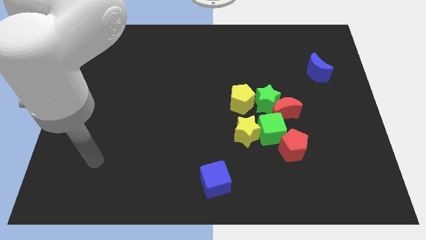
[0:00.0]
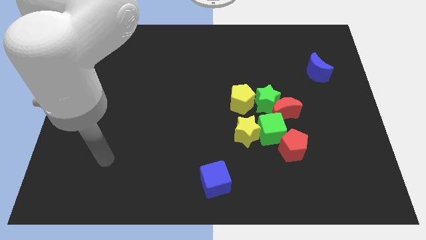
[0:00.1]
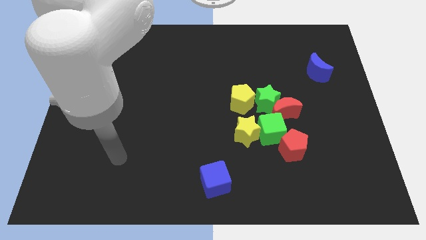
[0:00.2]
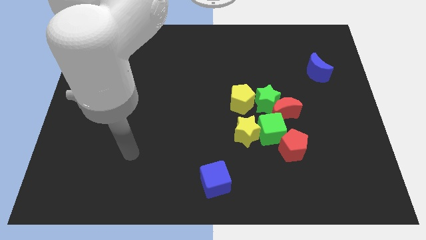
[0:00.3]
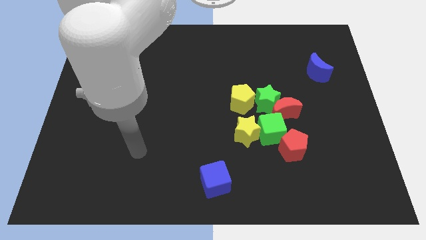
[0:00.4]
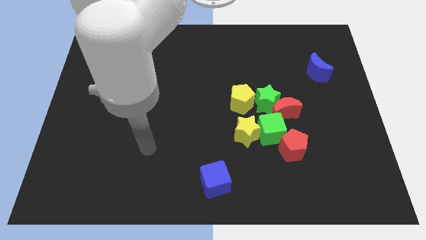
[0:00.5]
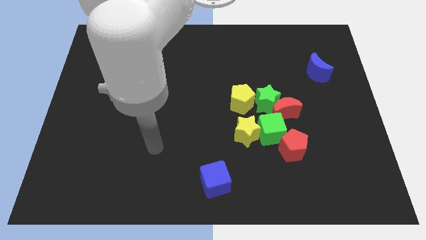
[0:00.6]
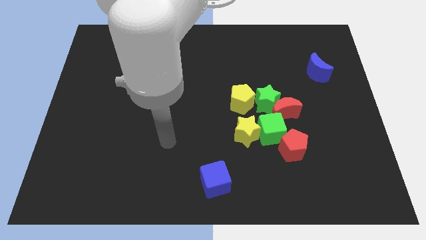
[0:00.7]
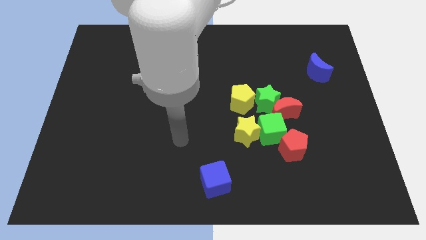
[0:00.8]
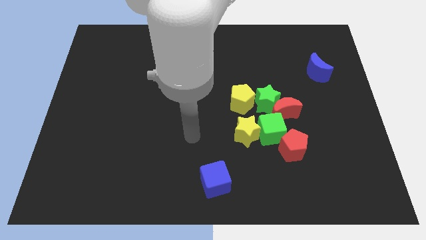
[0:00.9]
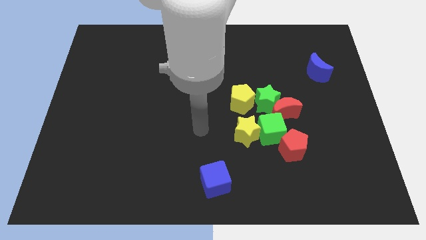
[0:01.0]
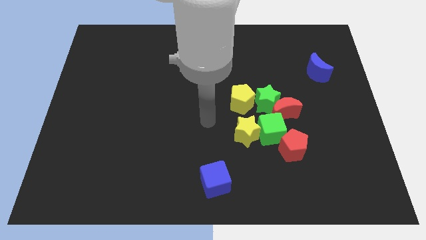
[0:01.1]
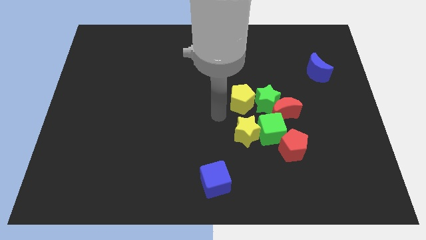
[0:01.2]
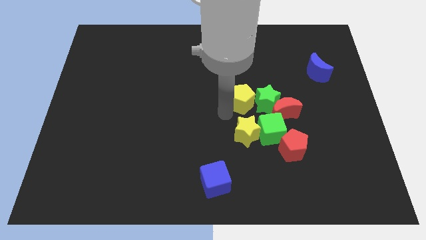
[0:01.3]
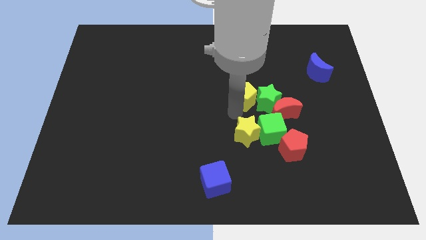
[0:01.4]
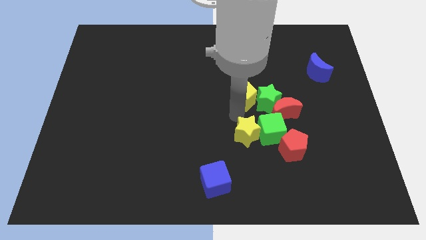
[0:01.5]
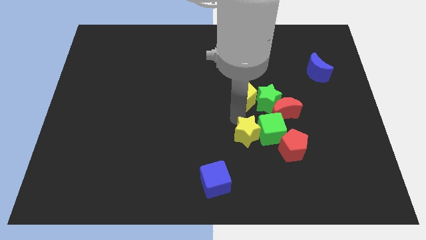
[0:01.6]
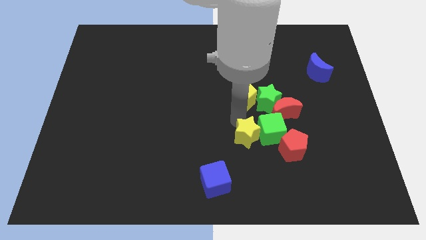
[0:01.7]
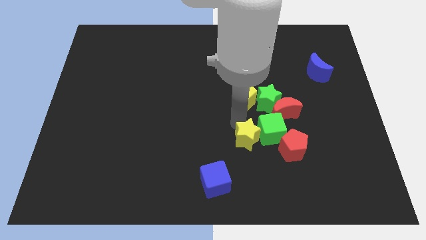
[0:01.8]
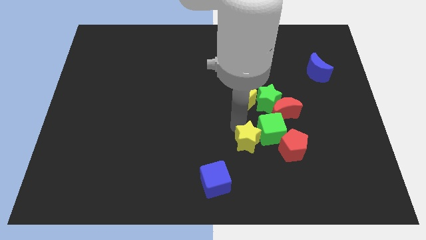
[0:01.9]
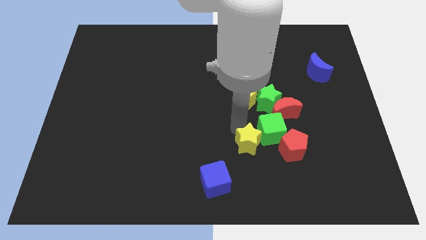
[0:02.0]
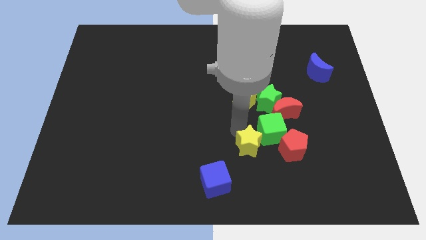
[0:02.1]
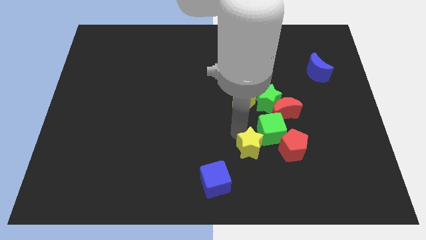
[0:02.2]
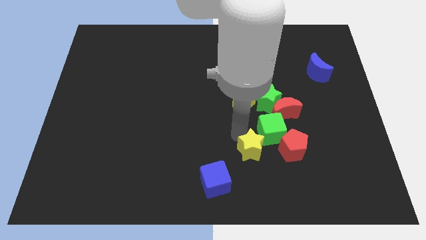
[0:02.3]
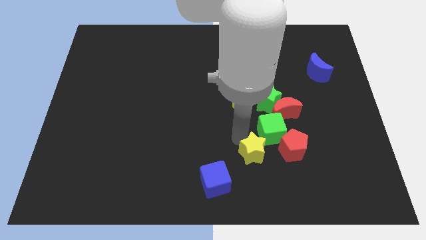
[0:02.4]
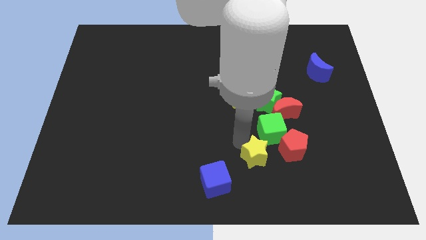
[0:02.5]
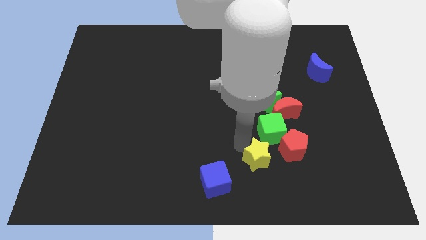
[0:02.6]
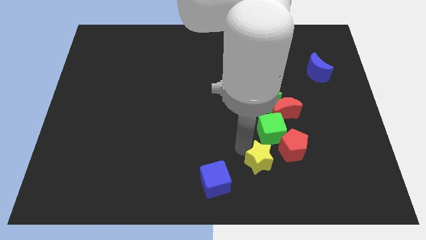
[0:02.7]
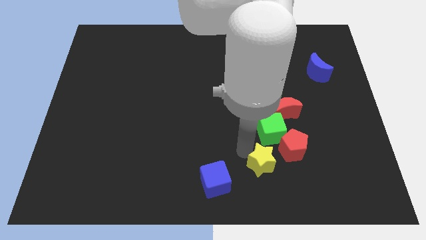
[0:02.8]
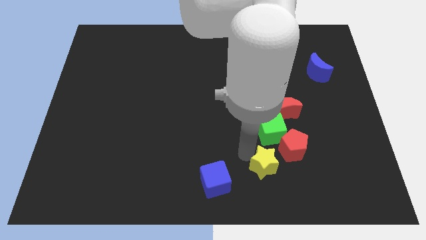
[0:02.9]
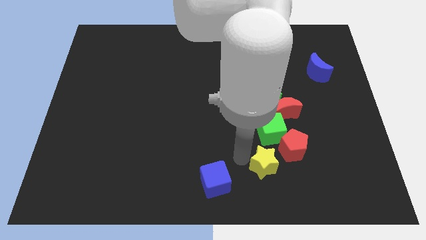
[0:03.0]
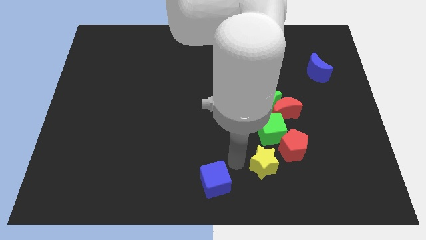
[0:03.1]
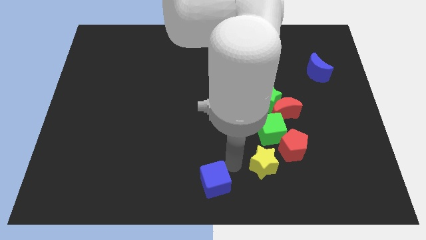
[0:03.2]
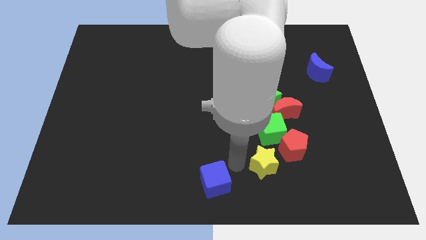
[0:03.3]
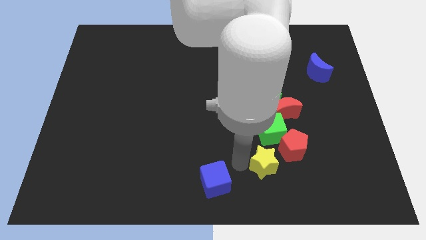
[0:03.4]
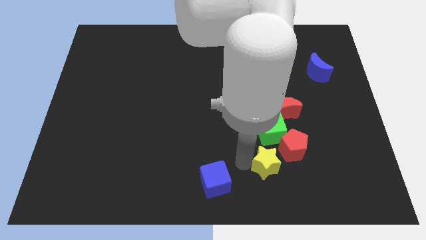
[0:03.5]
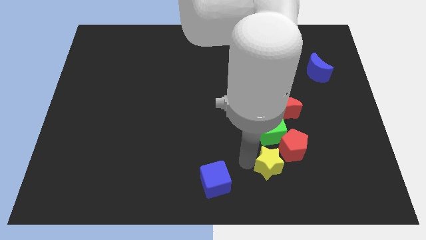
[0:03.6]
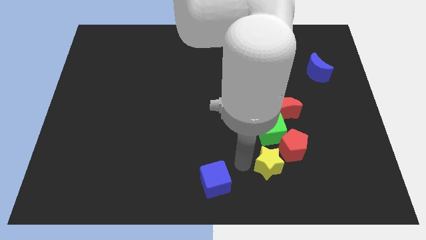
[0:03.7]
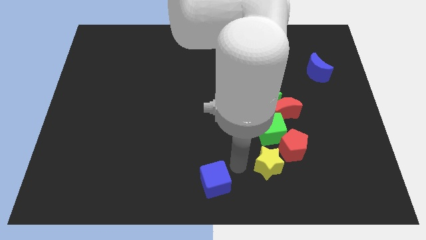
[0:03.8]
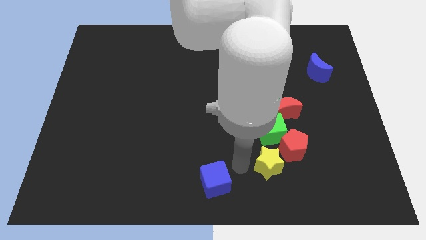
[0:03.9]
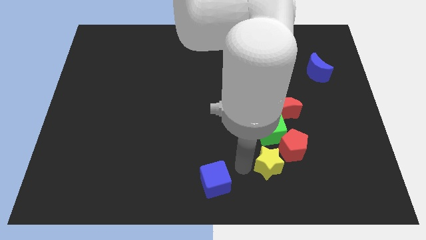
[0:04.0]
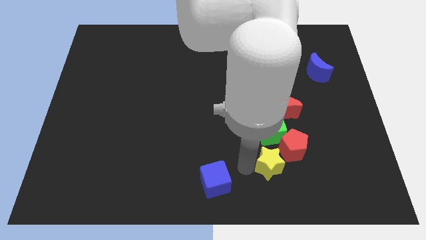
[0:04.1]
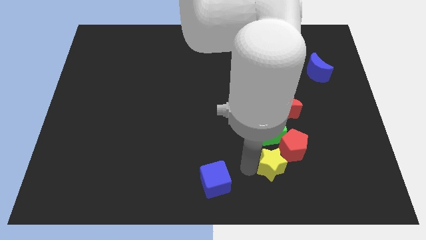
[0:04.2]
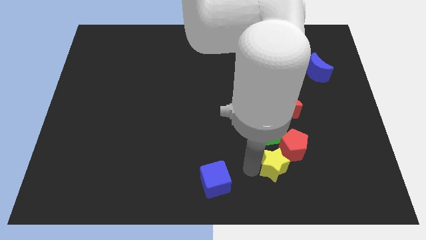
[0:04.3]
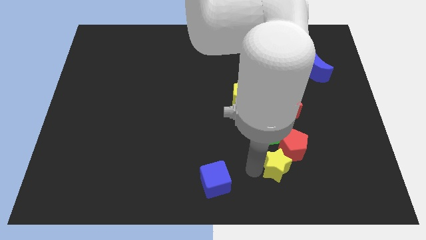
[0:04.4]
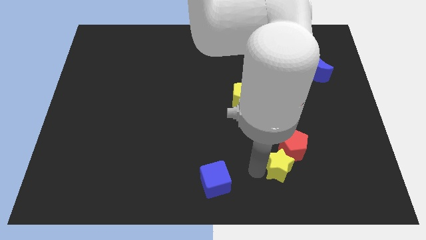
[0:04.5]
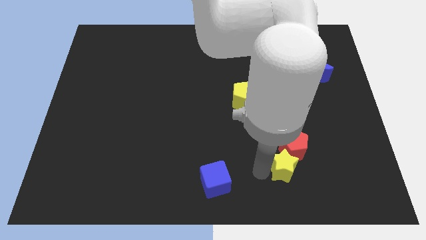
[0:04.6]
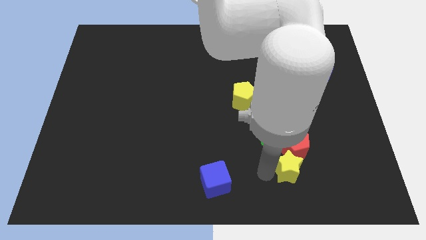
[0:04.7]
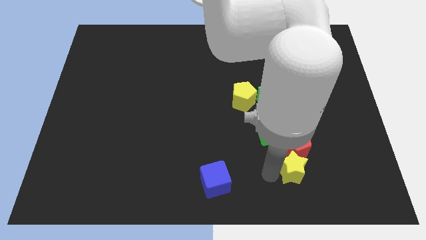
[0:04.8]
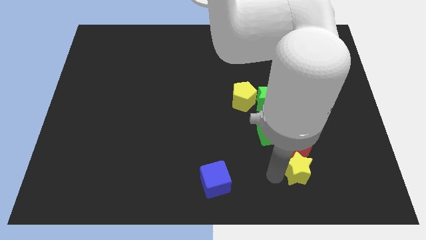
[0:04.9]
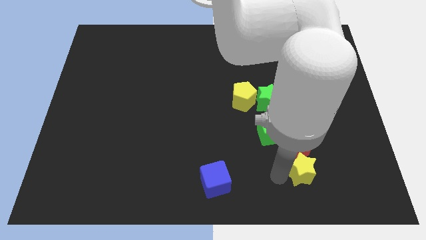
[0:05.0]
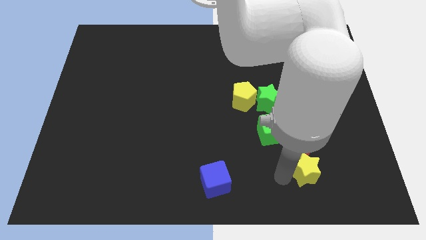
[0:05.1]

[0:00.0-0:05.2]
slide the yellow star a little bit to the right

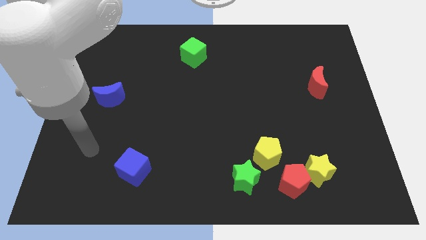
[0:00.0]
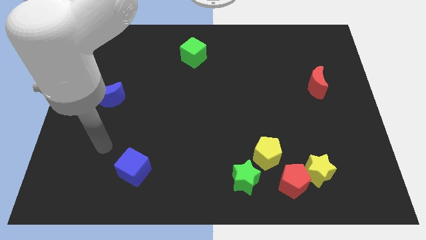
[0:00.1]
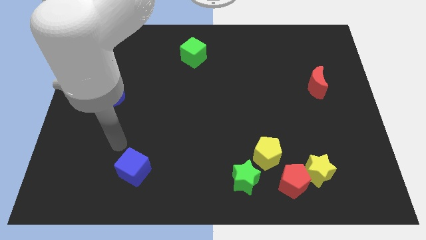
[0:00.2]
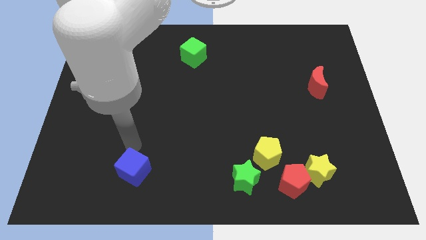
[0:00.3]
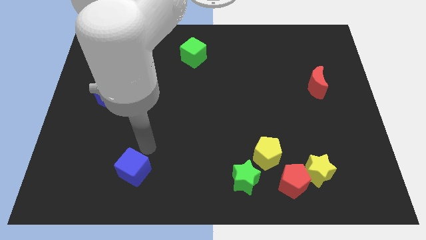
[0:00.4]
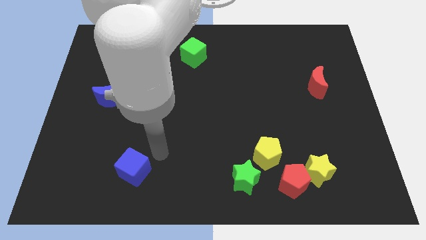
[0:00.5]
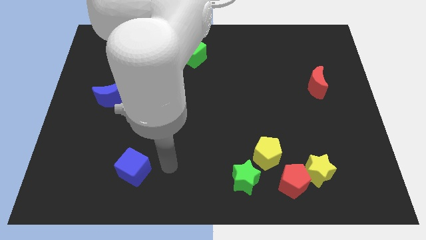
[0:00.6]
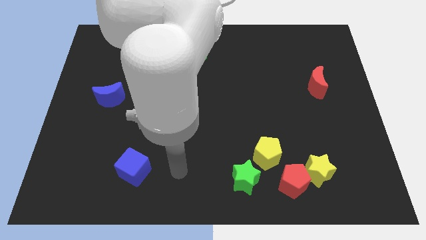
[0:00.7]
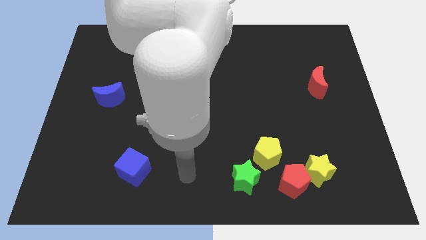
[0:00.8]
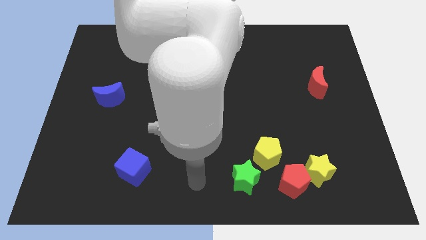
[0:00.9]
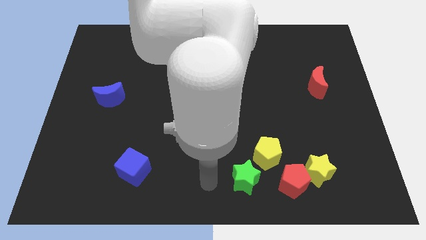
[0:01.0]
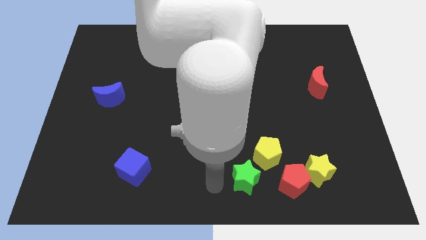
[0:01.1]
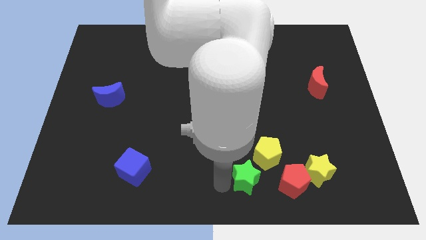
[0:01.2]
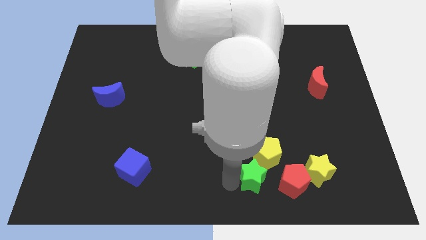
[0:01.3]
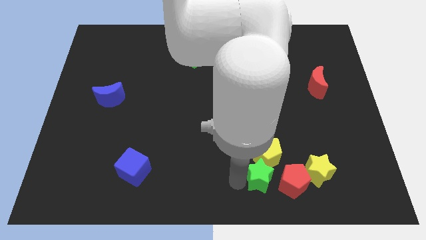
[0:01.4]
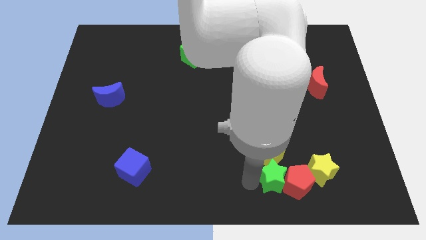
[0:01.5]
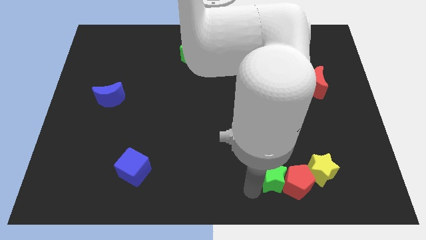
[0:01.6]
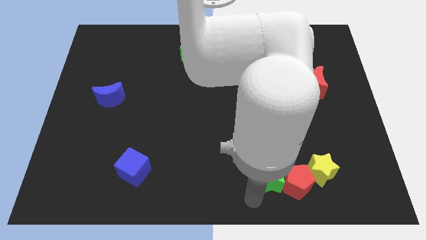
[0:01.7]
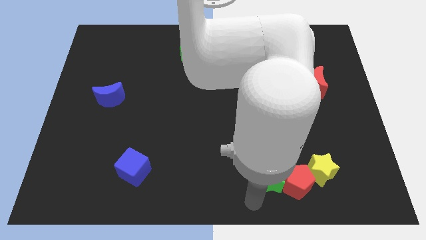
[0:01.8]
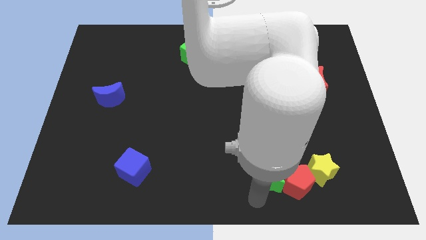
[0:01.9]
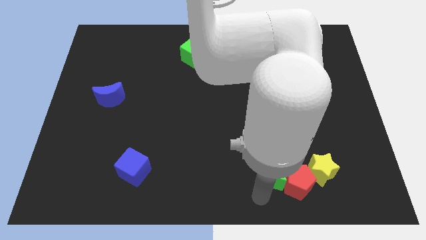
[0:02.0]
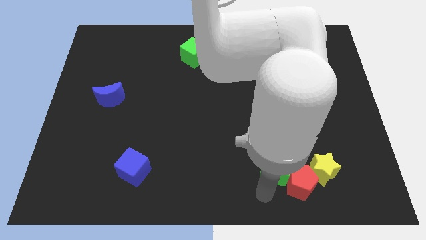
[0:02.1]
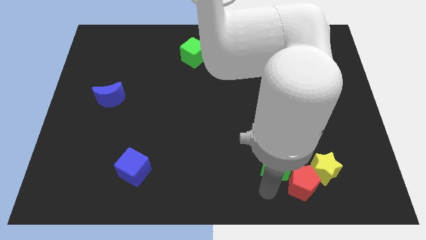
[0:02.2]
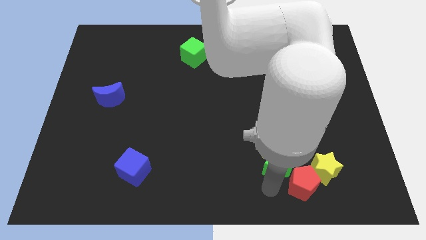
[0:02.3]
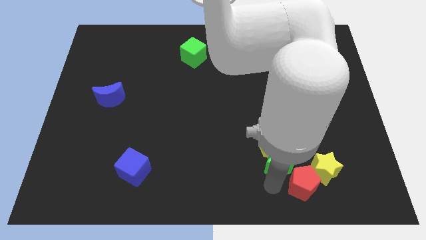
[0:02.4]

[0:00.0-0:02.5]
slide the green star upwards and to the right somewhat

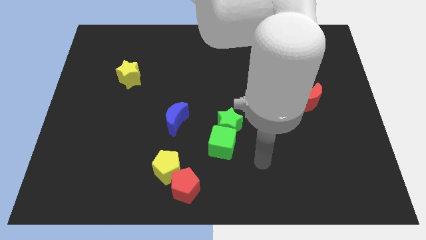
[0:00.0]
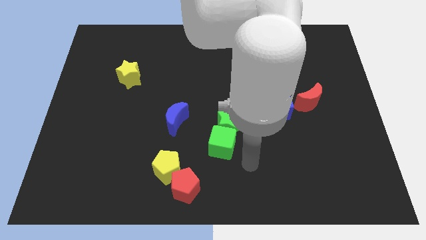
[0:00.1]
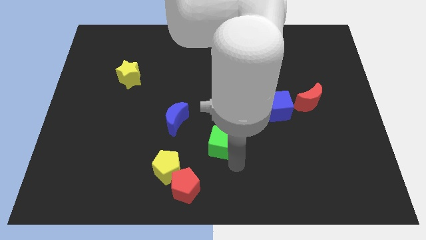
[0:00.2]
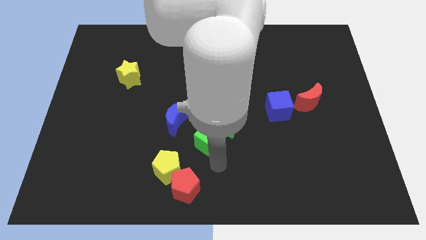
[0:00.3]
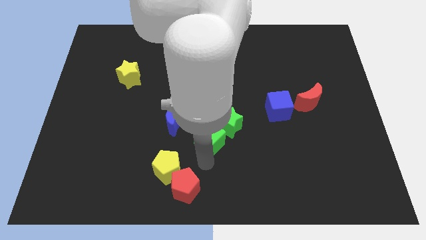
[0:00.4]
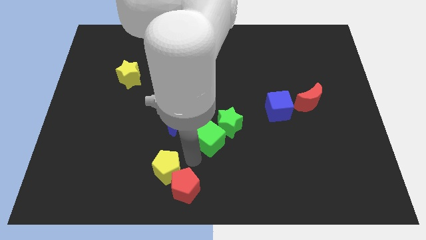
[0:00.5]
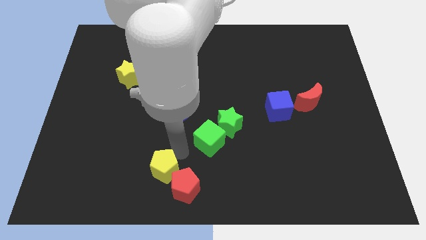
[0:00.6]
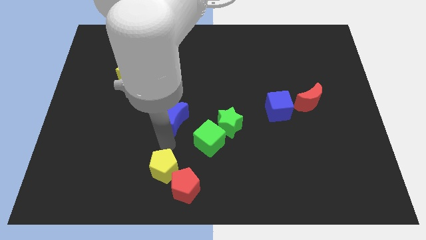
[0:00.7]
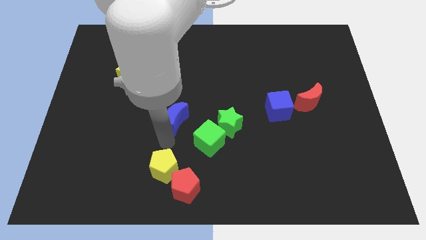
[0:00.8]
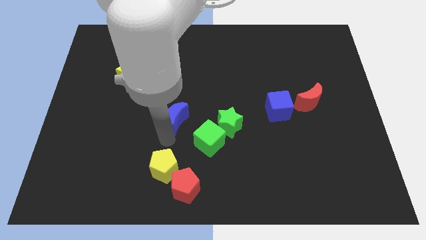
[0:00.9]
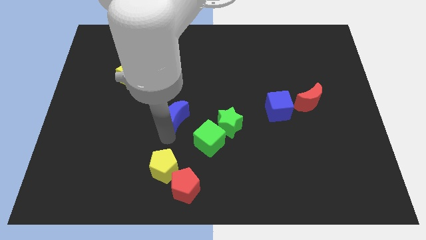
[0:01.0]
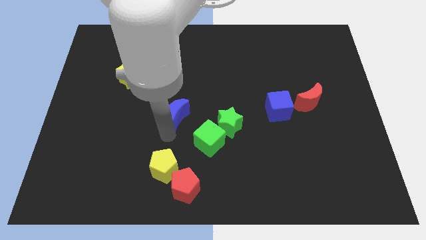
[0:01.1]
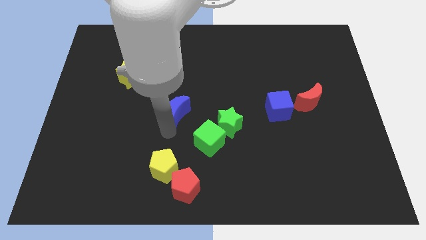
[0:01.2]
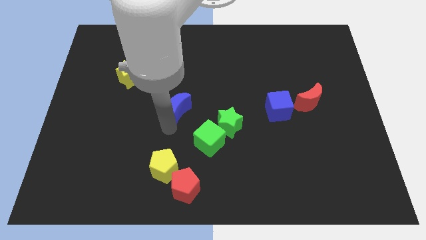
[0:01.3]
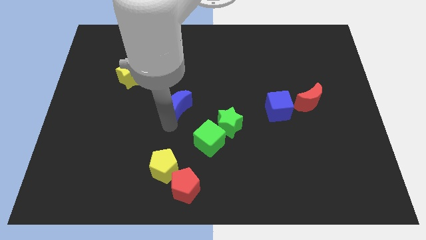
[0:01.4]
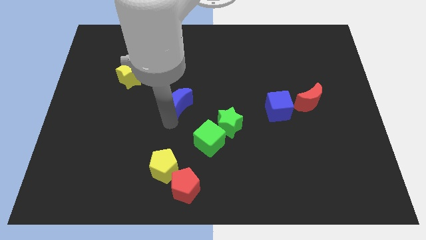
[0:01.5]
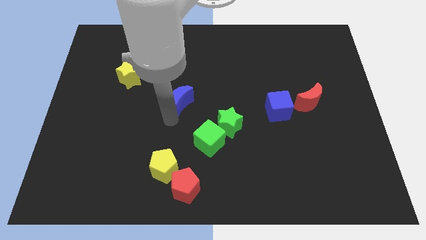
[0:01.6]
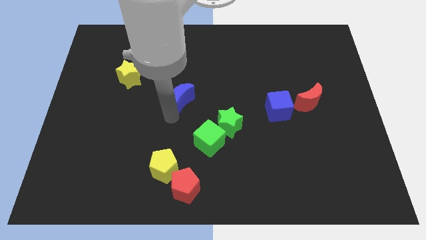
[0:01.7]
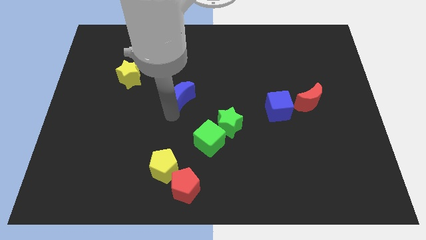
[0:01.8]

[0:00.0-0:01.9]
move the blue moon somewhat upwards
